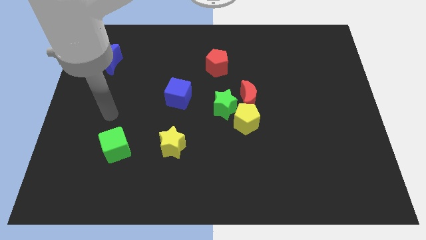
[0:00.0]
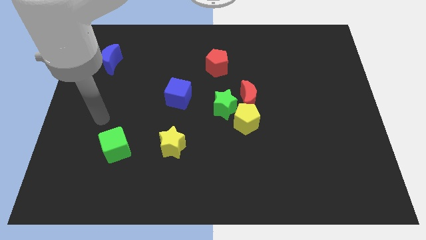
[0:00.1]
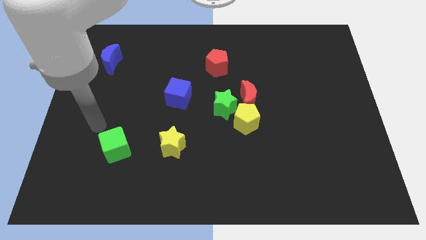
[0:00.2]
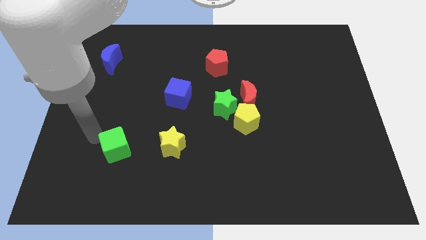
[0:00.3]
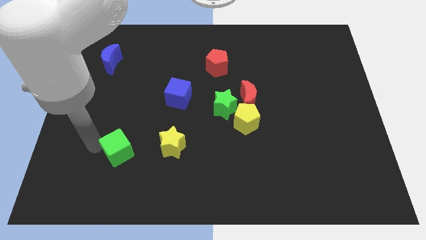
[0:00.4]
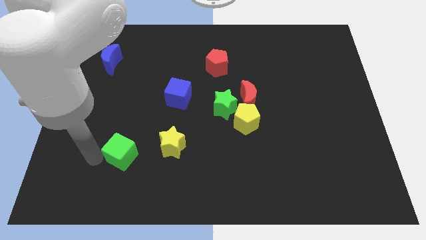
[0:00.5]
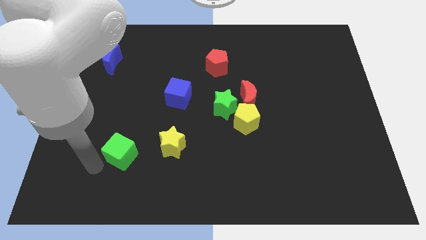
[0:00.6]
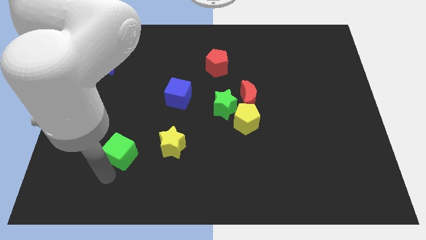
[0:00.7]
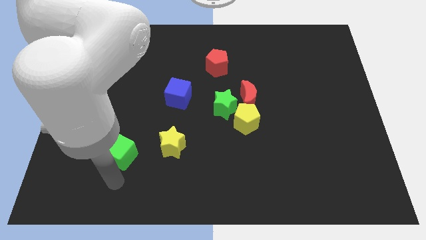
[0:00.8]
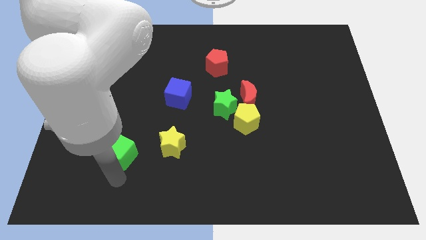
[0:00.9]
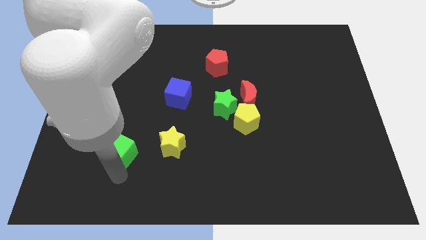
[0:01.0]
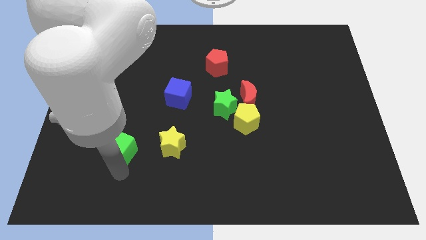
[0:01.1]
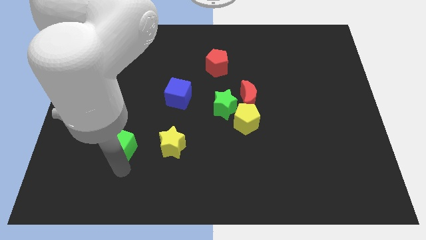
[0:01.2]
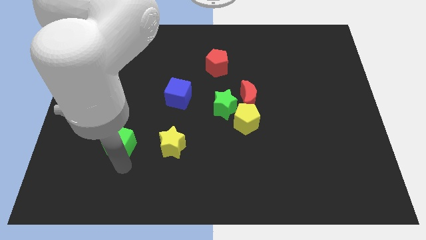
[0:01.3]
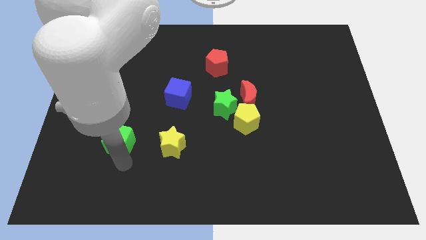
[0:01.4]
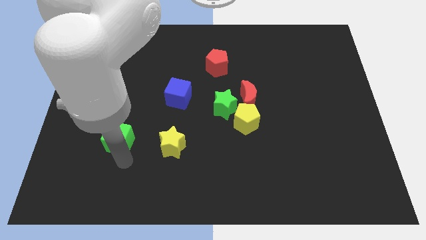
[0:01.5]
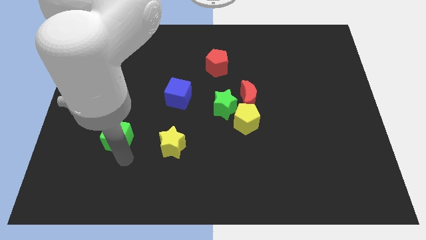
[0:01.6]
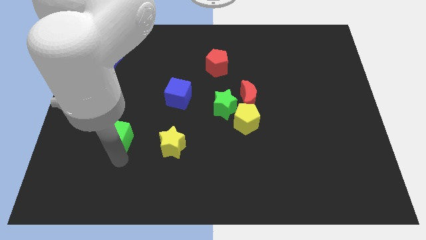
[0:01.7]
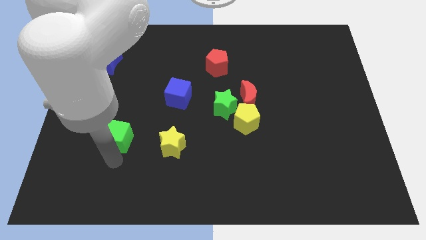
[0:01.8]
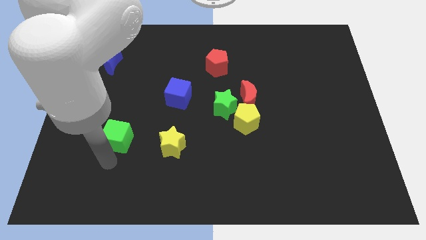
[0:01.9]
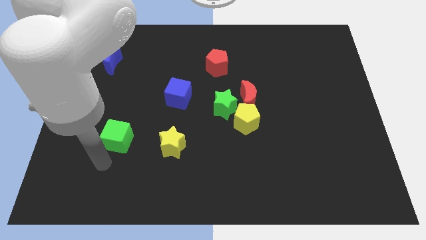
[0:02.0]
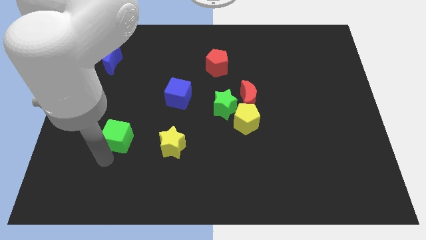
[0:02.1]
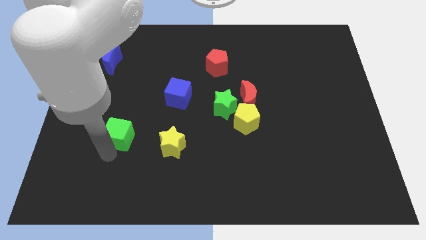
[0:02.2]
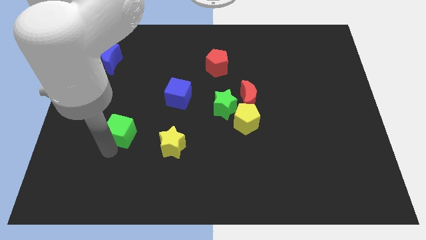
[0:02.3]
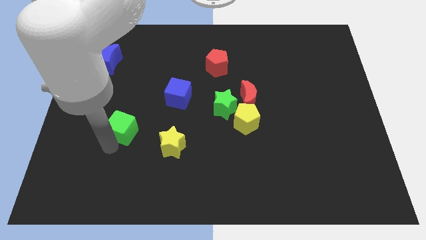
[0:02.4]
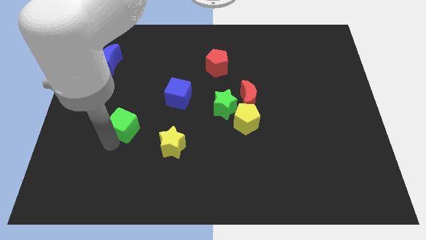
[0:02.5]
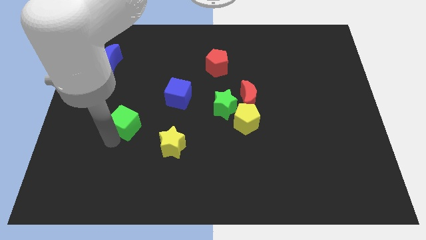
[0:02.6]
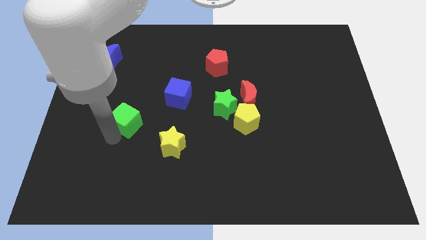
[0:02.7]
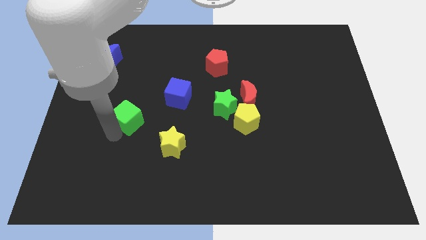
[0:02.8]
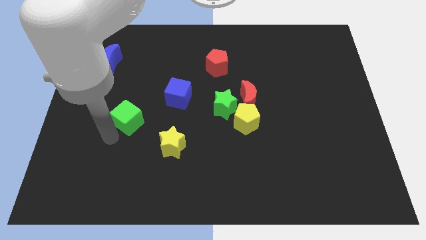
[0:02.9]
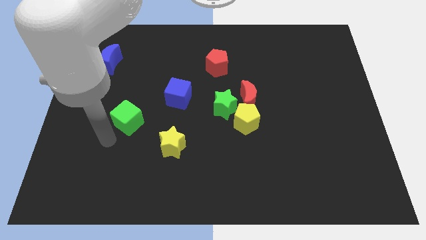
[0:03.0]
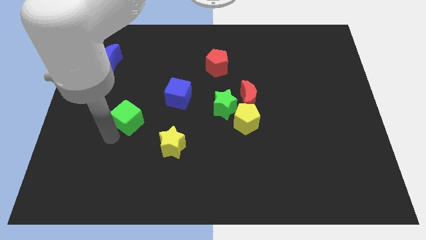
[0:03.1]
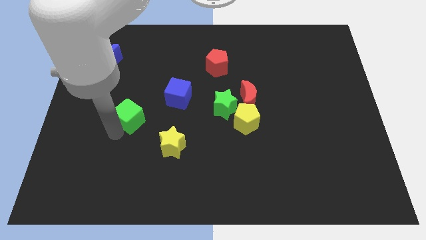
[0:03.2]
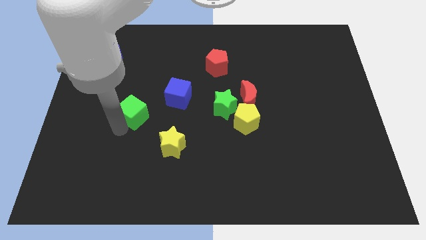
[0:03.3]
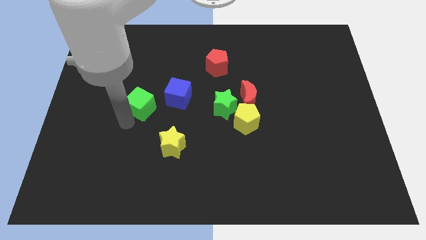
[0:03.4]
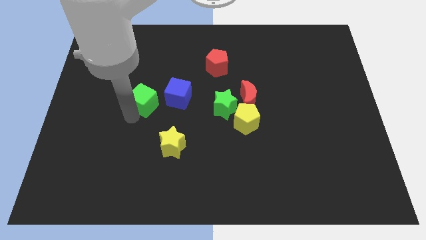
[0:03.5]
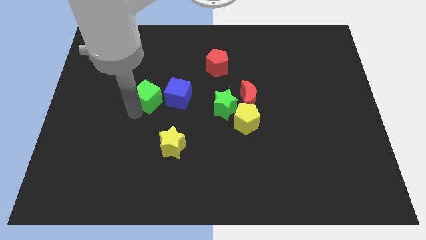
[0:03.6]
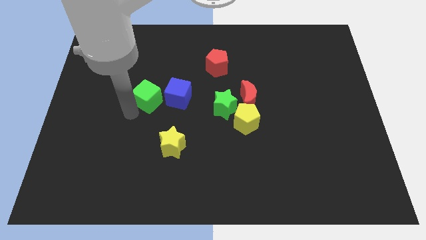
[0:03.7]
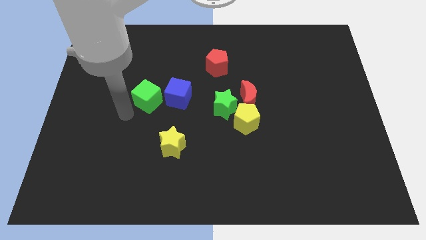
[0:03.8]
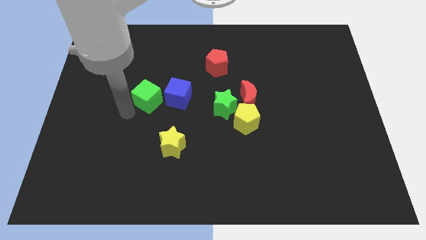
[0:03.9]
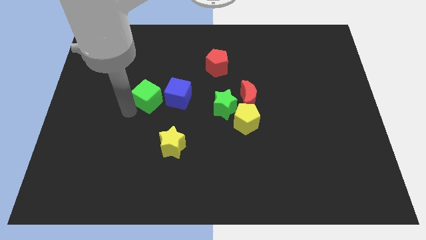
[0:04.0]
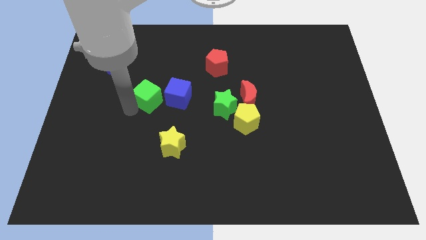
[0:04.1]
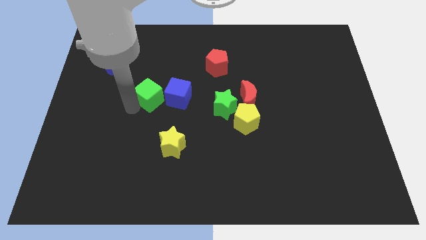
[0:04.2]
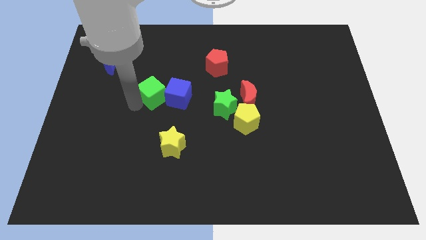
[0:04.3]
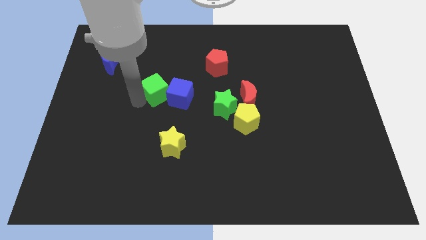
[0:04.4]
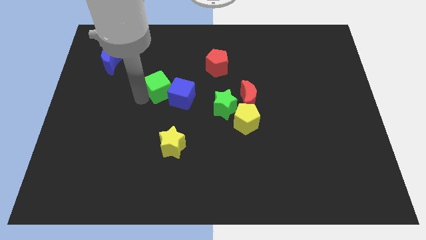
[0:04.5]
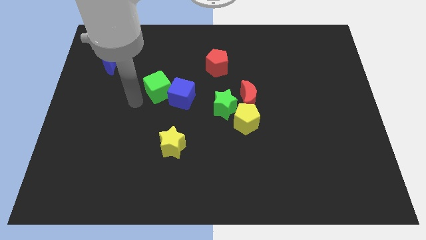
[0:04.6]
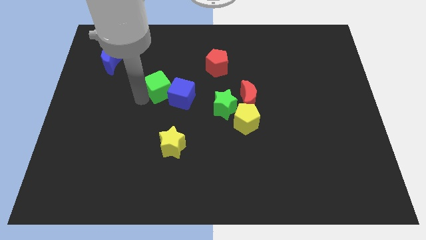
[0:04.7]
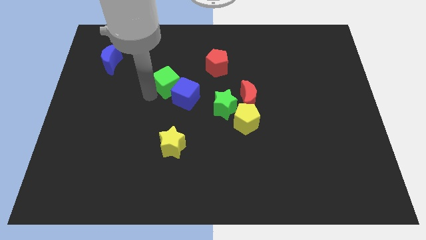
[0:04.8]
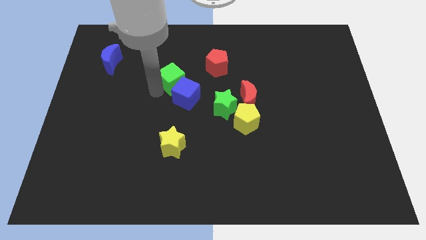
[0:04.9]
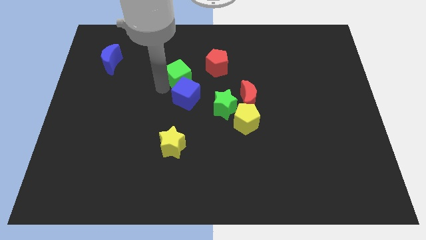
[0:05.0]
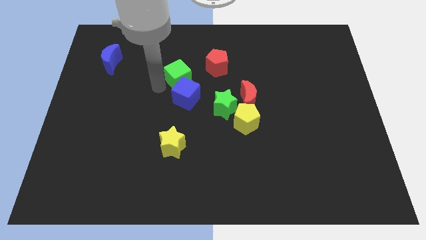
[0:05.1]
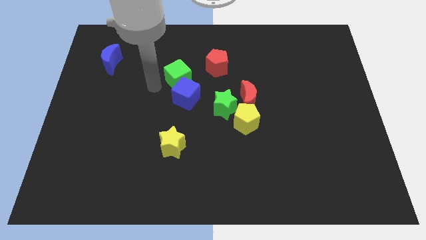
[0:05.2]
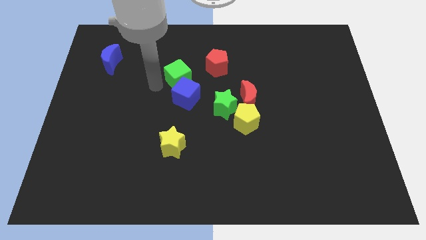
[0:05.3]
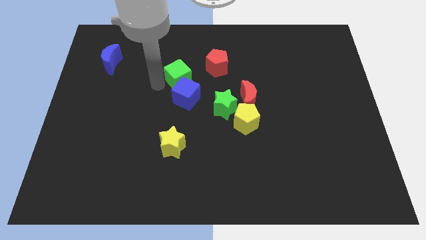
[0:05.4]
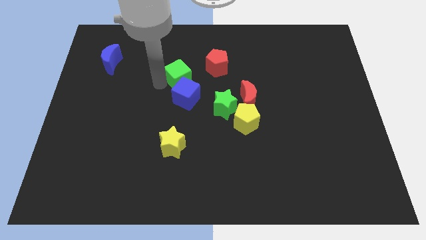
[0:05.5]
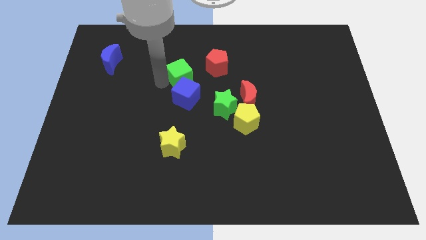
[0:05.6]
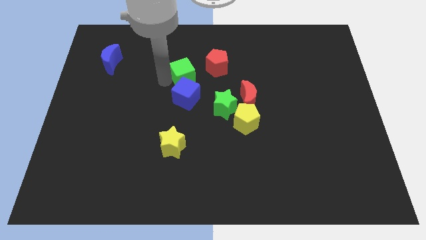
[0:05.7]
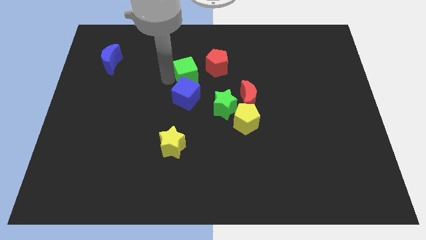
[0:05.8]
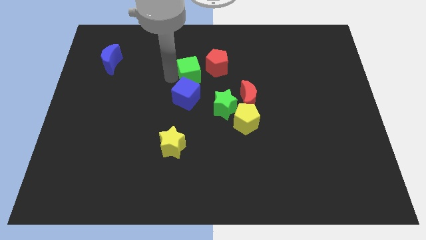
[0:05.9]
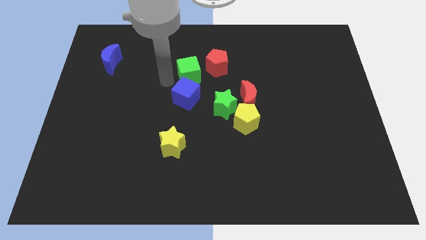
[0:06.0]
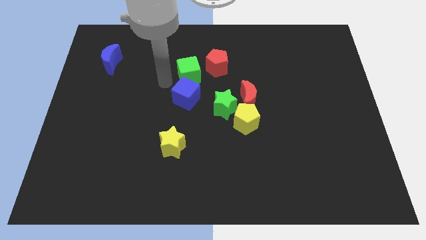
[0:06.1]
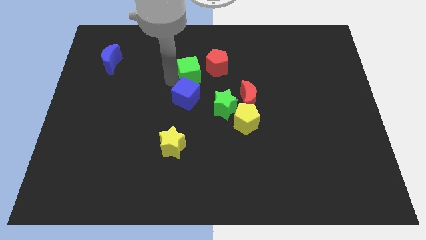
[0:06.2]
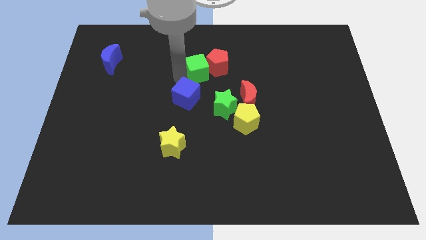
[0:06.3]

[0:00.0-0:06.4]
push the green cube towards the red pentagon
